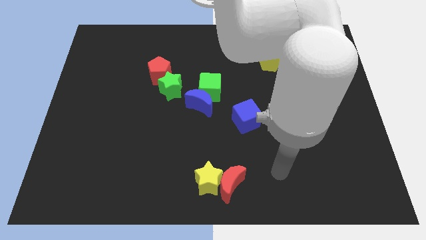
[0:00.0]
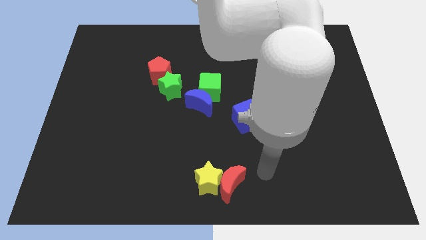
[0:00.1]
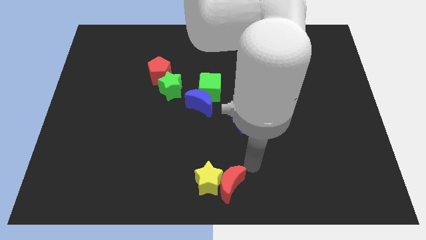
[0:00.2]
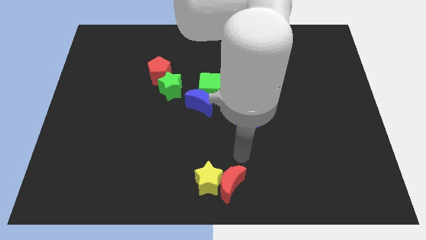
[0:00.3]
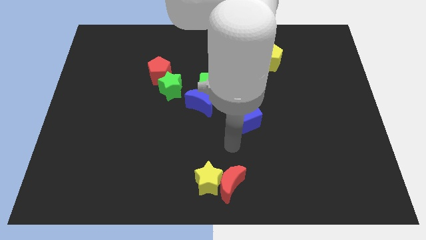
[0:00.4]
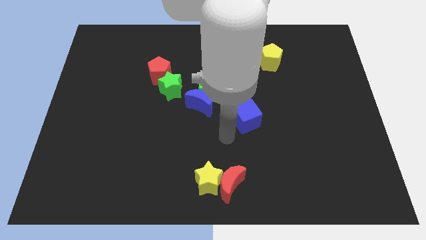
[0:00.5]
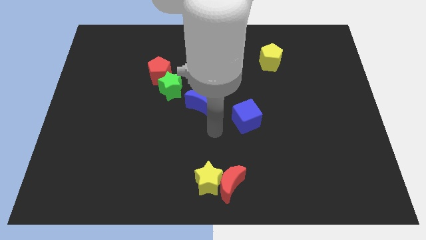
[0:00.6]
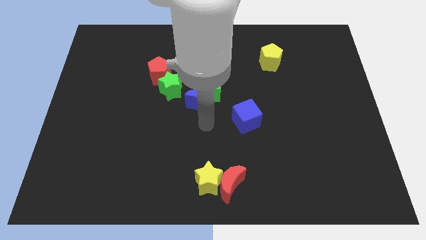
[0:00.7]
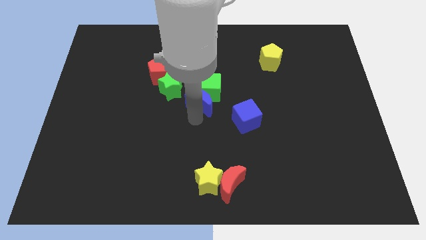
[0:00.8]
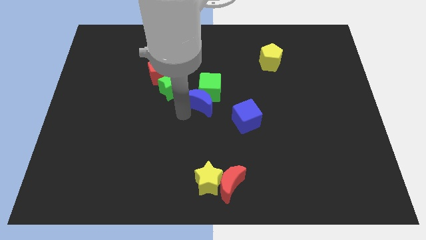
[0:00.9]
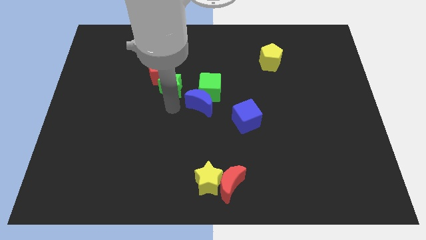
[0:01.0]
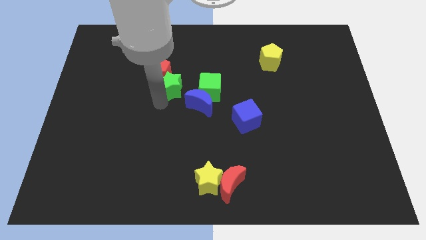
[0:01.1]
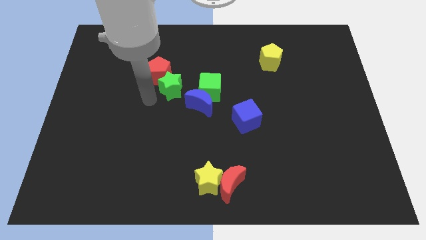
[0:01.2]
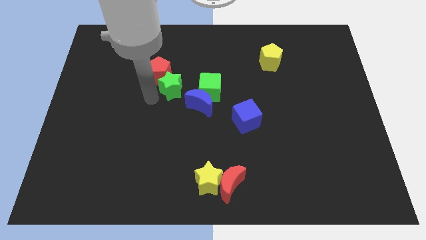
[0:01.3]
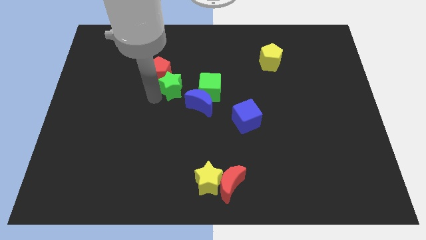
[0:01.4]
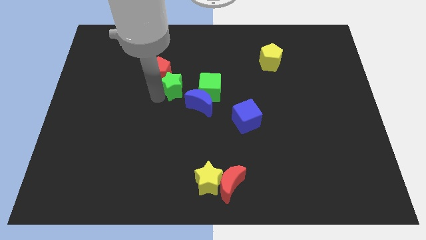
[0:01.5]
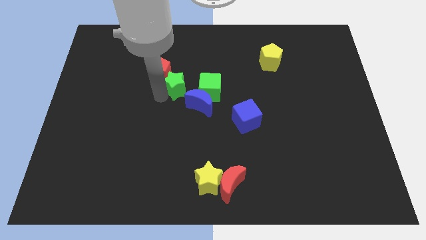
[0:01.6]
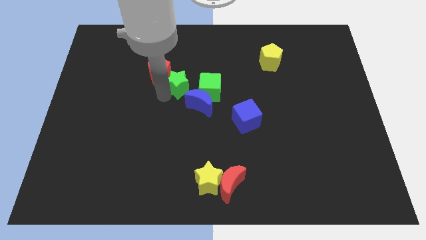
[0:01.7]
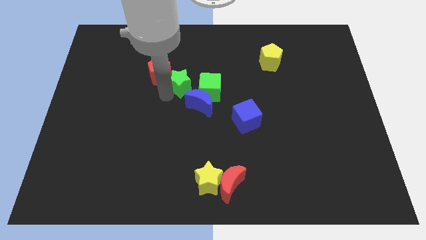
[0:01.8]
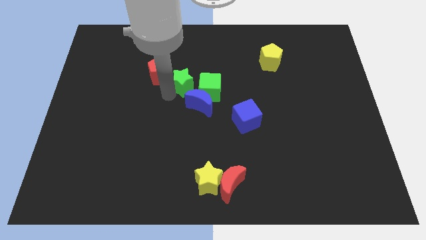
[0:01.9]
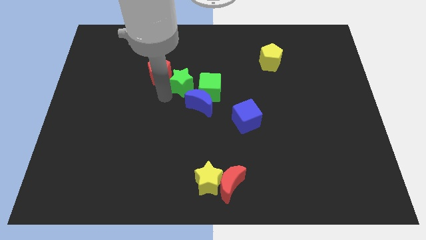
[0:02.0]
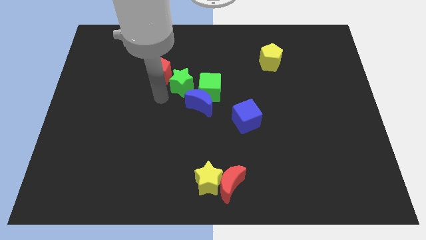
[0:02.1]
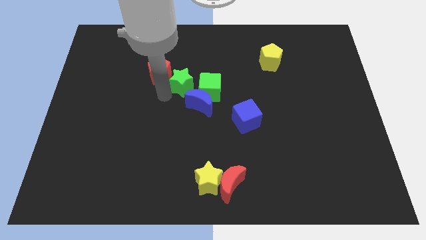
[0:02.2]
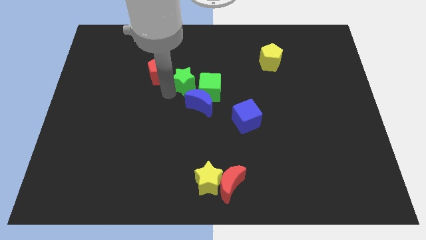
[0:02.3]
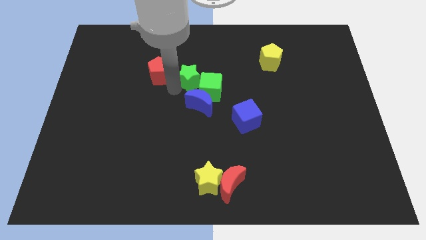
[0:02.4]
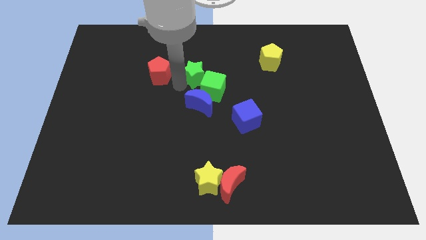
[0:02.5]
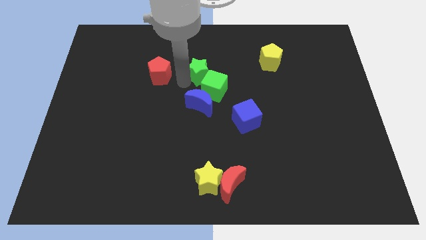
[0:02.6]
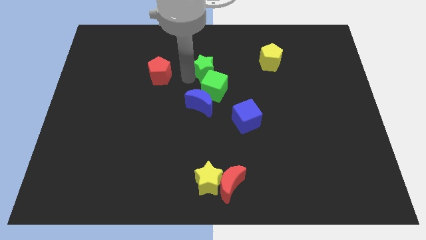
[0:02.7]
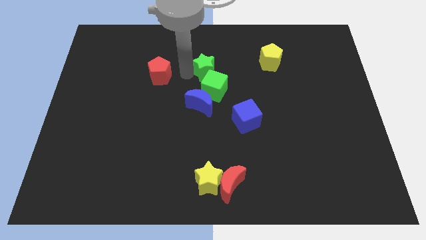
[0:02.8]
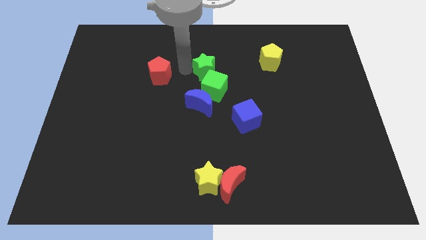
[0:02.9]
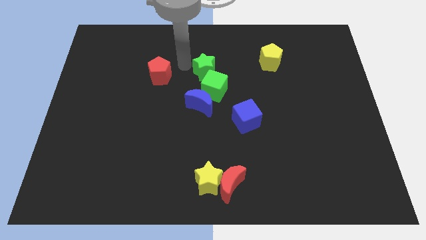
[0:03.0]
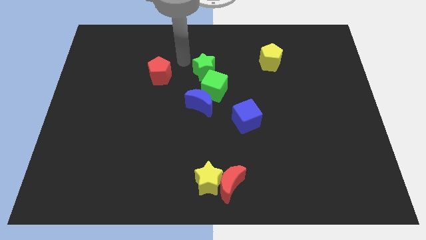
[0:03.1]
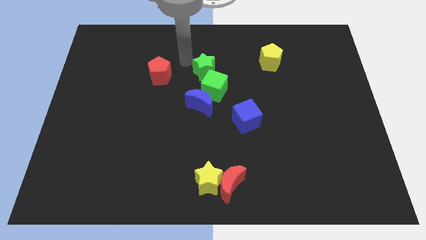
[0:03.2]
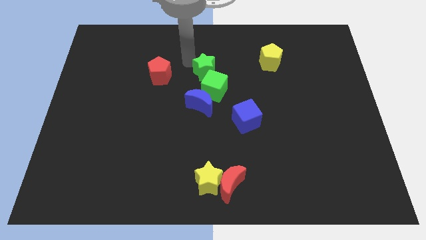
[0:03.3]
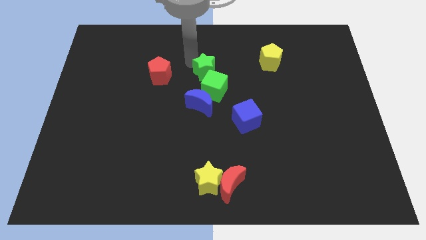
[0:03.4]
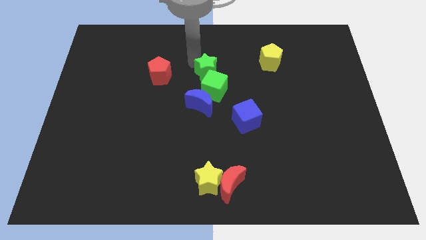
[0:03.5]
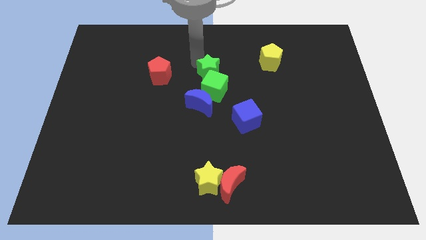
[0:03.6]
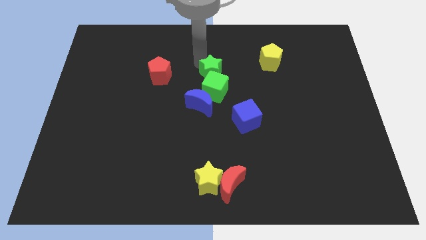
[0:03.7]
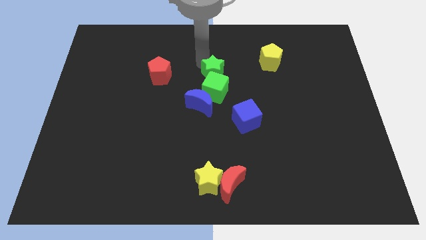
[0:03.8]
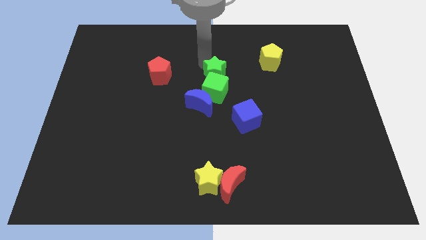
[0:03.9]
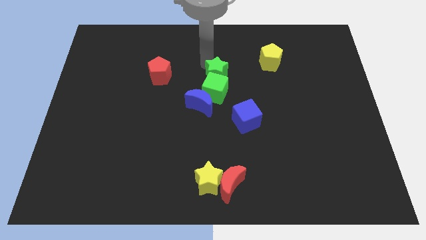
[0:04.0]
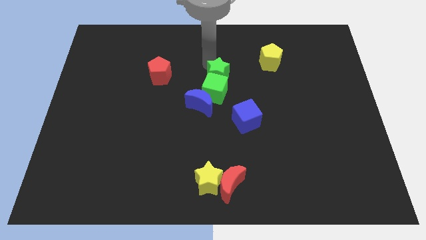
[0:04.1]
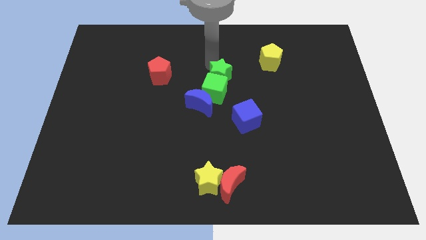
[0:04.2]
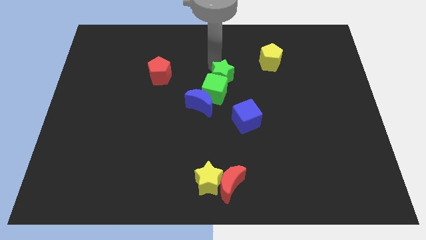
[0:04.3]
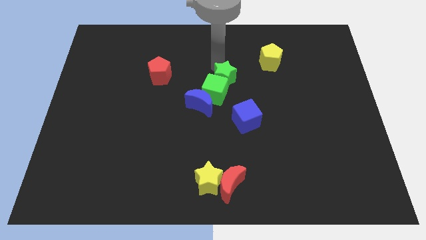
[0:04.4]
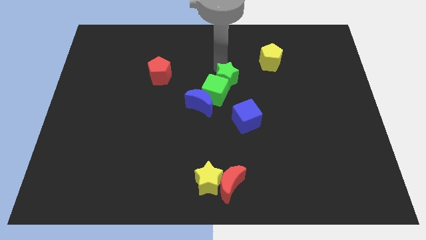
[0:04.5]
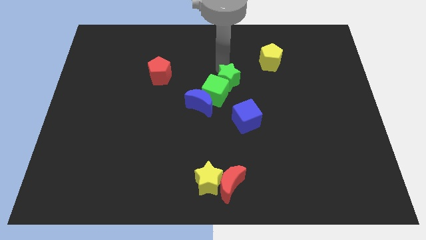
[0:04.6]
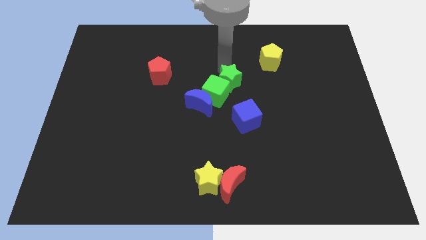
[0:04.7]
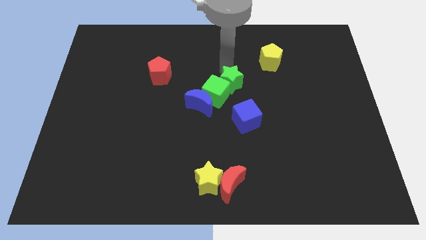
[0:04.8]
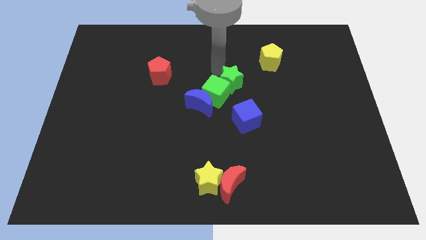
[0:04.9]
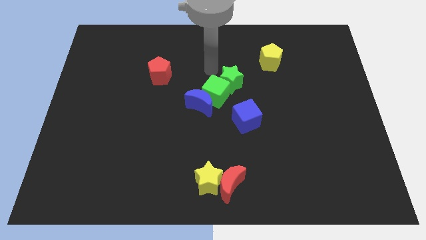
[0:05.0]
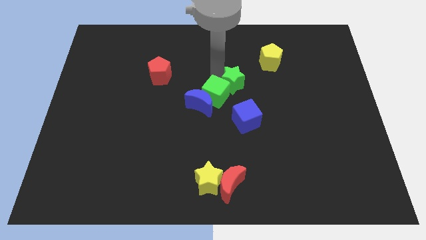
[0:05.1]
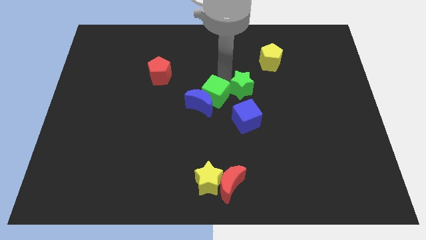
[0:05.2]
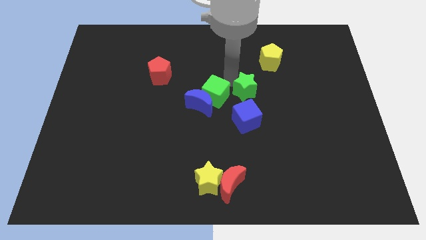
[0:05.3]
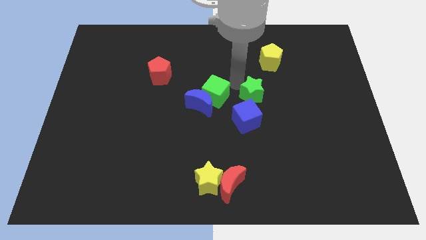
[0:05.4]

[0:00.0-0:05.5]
slide the green star diagonally up and to the right of the blue cube

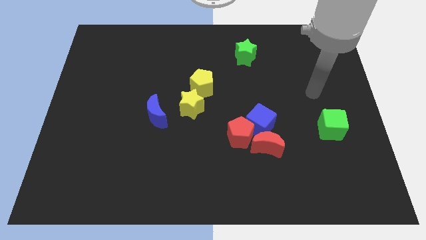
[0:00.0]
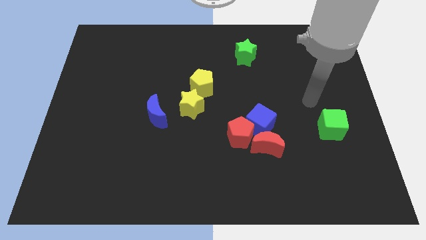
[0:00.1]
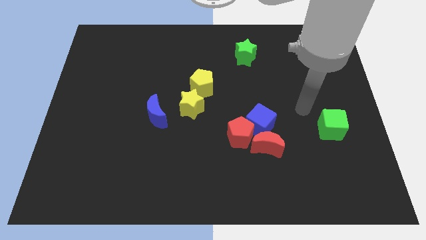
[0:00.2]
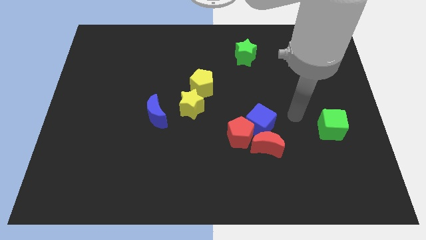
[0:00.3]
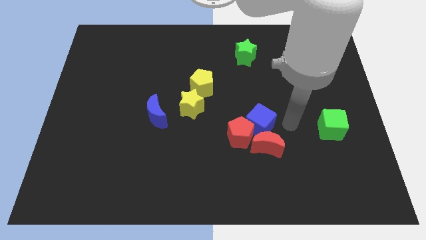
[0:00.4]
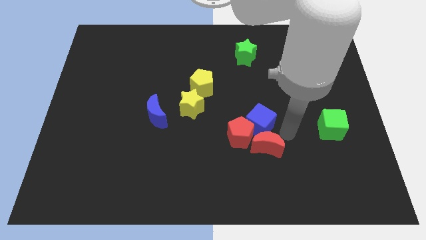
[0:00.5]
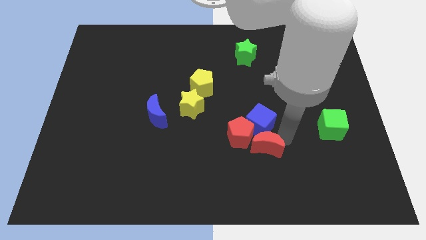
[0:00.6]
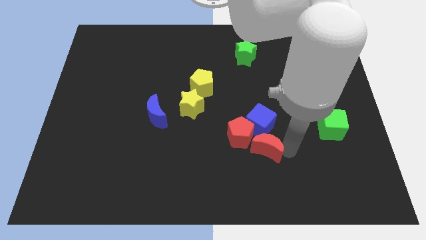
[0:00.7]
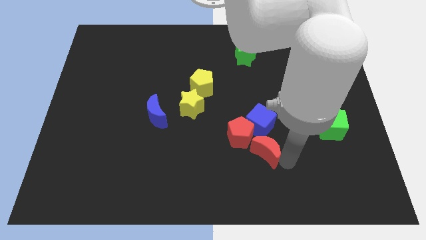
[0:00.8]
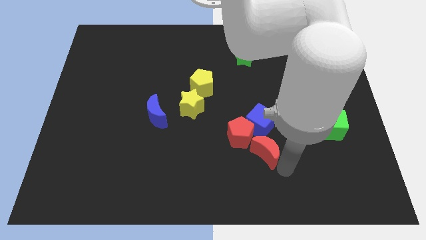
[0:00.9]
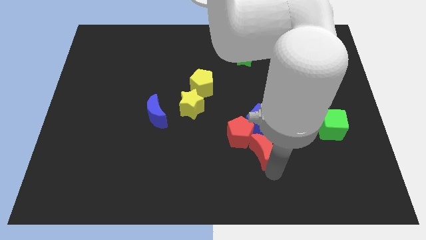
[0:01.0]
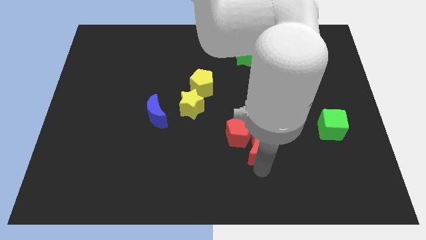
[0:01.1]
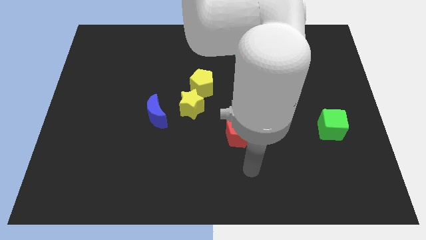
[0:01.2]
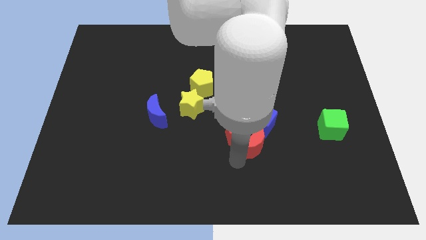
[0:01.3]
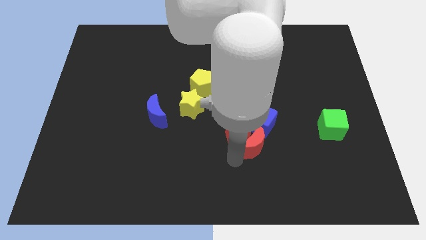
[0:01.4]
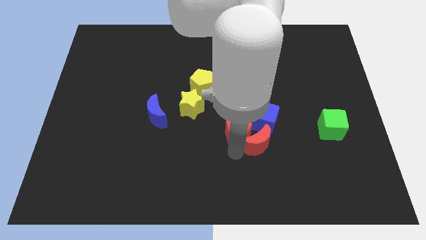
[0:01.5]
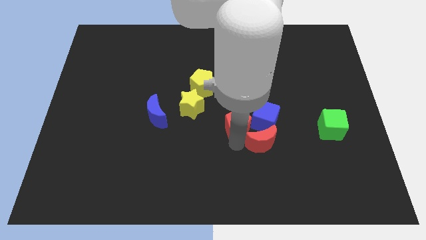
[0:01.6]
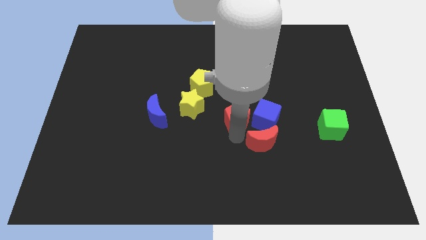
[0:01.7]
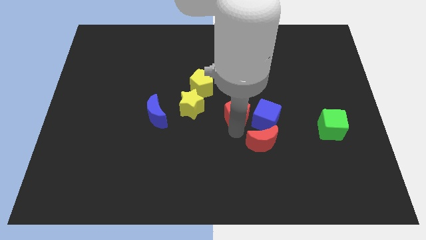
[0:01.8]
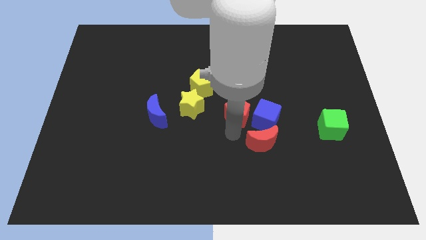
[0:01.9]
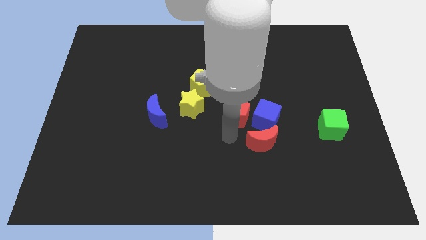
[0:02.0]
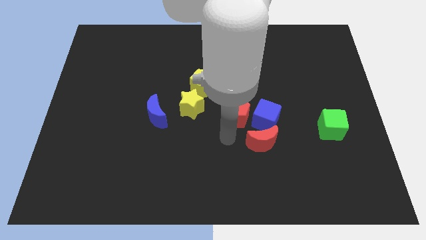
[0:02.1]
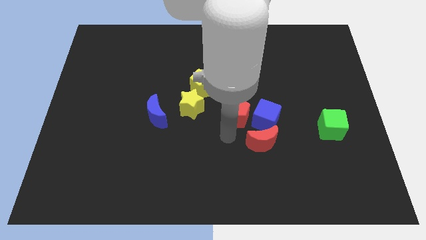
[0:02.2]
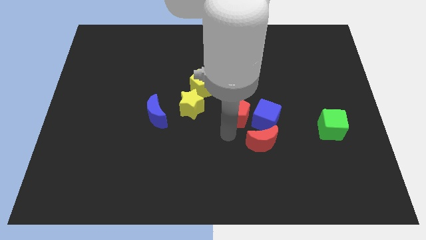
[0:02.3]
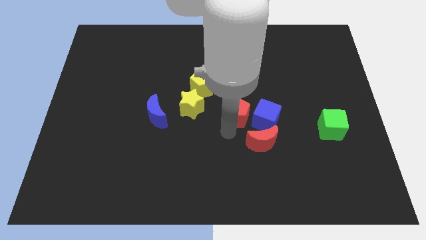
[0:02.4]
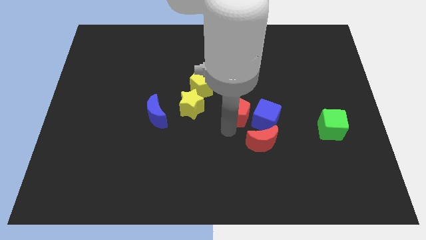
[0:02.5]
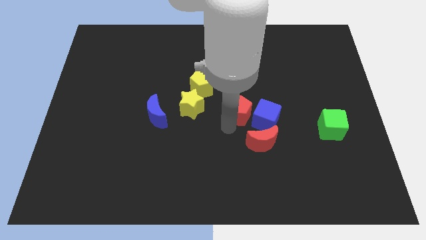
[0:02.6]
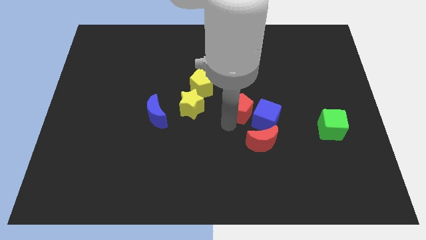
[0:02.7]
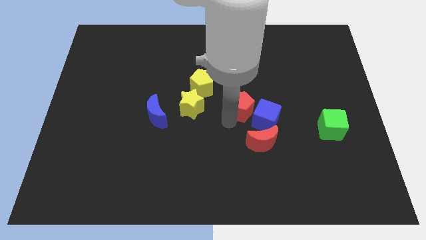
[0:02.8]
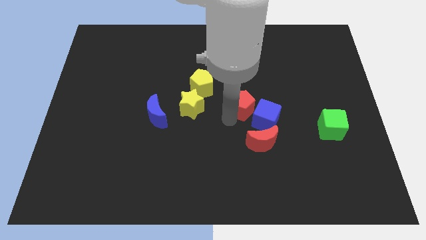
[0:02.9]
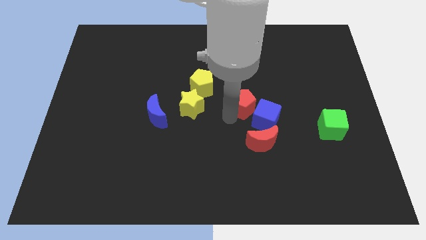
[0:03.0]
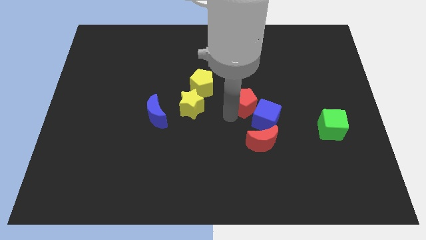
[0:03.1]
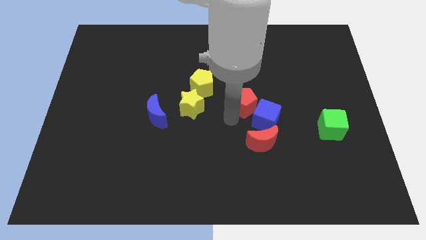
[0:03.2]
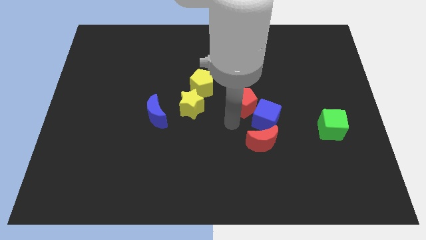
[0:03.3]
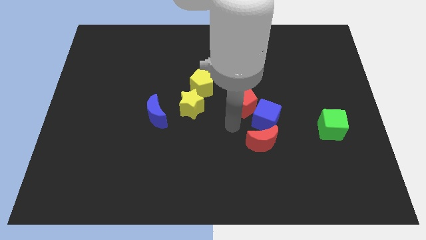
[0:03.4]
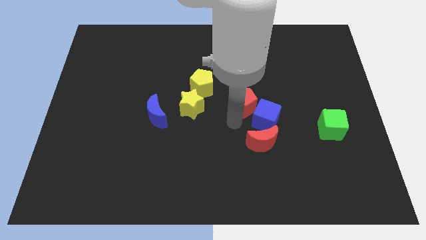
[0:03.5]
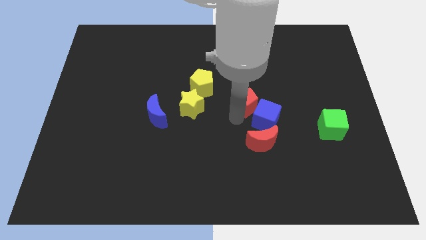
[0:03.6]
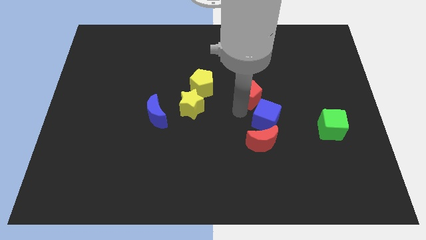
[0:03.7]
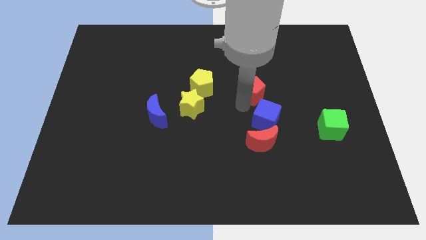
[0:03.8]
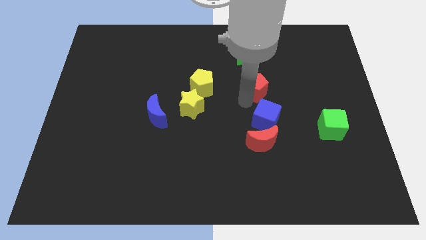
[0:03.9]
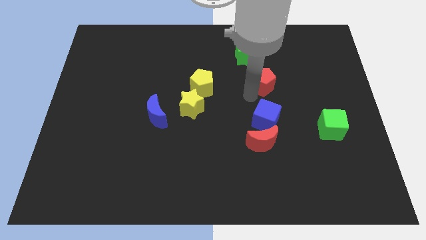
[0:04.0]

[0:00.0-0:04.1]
move the red pentagon to the bottom right of the green star
